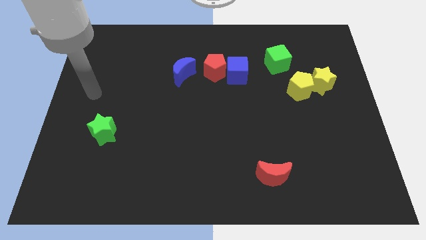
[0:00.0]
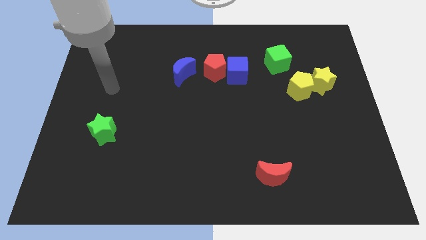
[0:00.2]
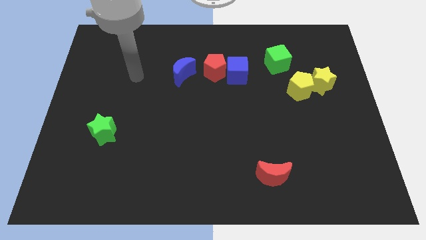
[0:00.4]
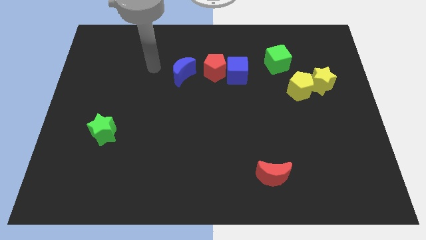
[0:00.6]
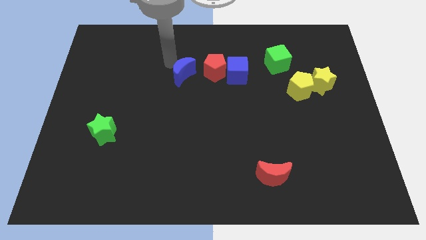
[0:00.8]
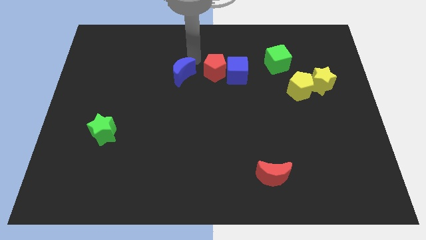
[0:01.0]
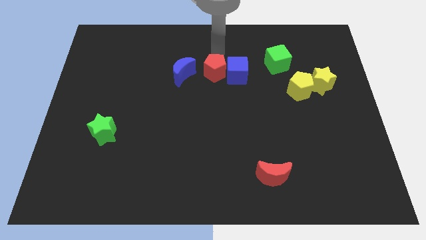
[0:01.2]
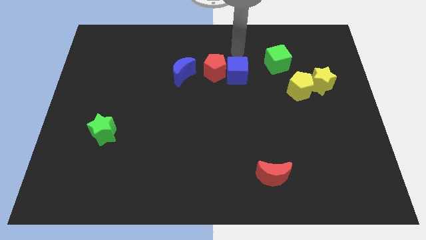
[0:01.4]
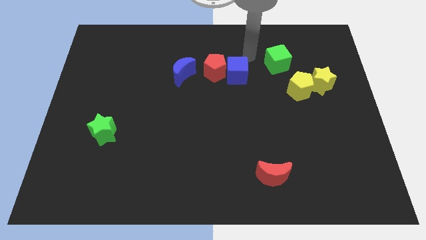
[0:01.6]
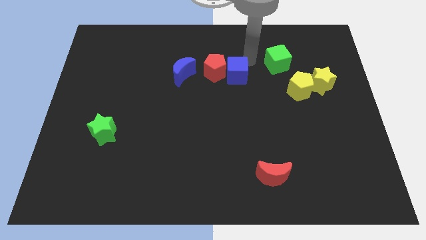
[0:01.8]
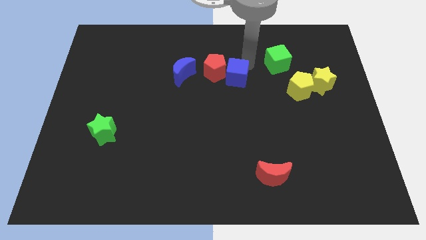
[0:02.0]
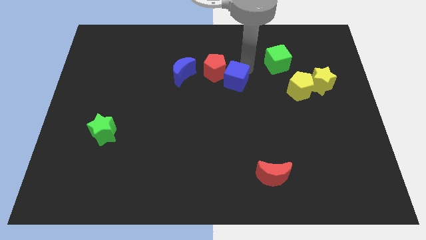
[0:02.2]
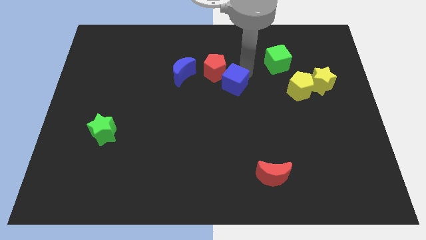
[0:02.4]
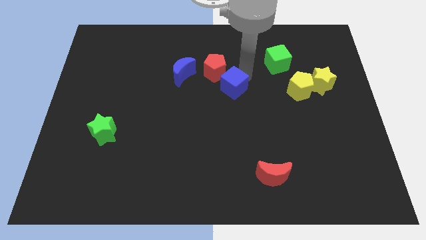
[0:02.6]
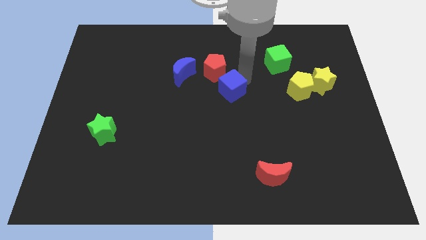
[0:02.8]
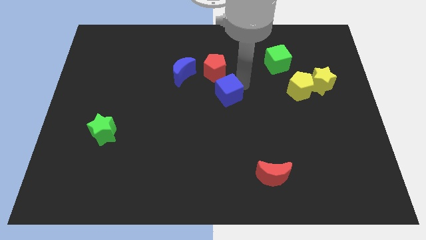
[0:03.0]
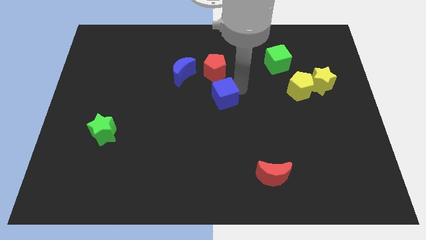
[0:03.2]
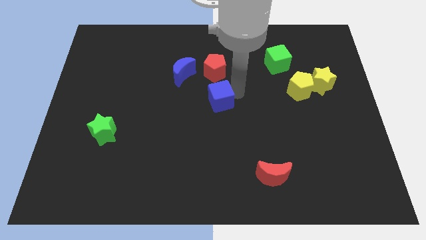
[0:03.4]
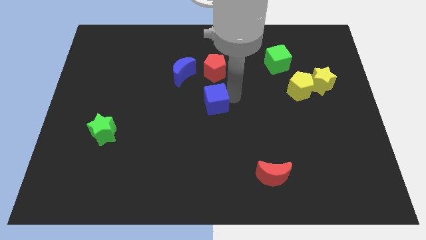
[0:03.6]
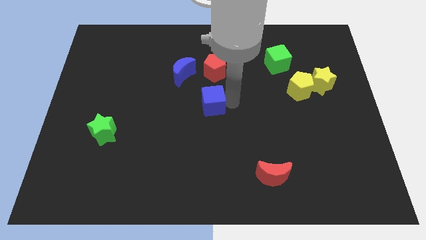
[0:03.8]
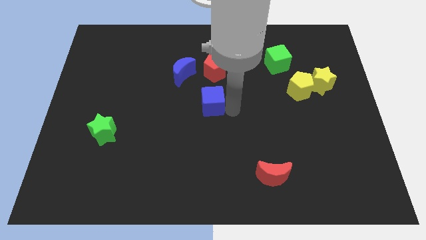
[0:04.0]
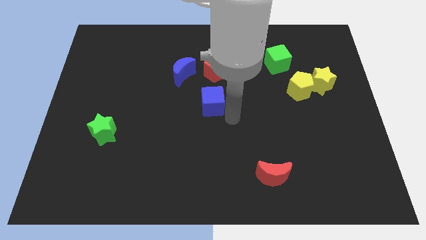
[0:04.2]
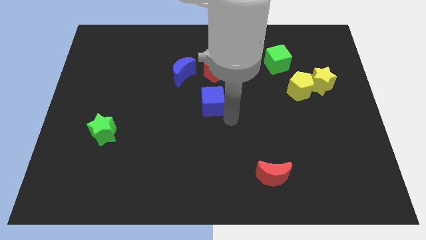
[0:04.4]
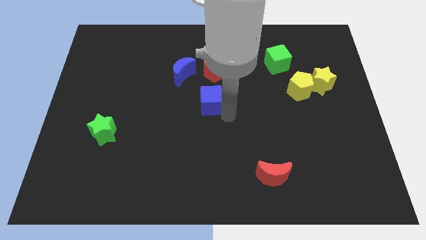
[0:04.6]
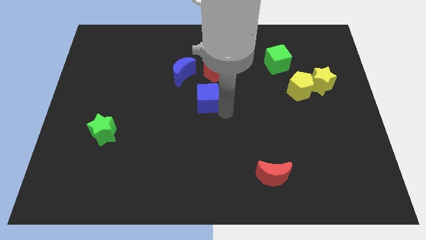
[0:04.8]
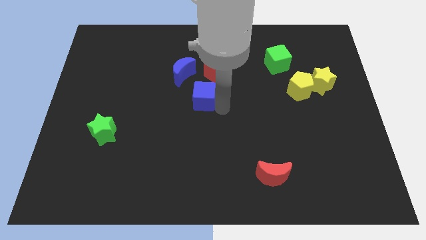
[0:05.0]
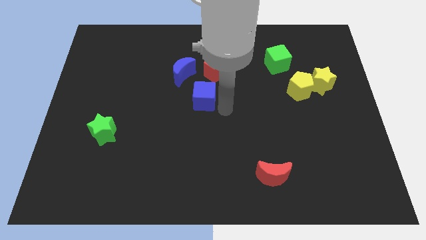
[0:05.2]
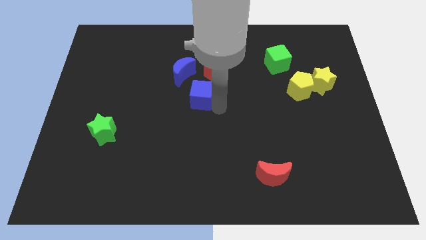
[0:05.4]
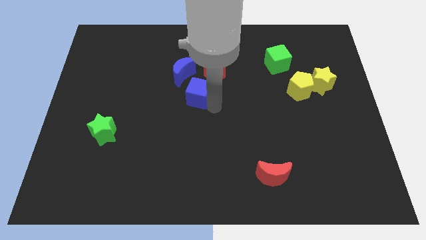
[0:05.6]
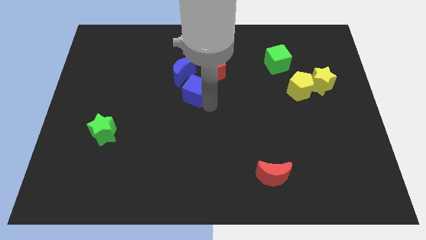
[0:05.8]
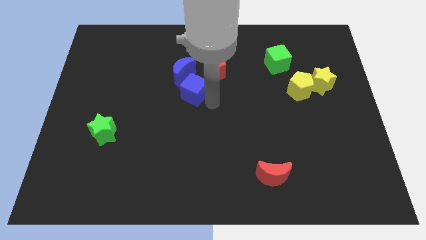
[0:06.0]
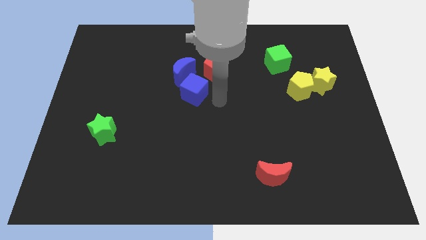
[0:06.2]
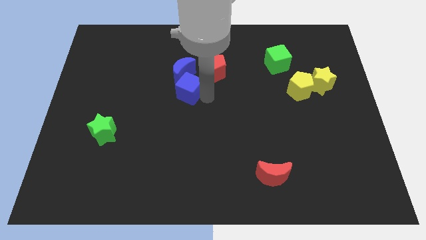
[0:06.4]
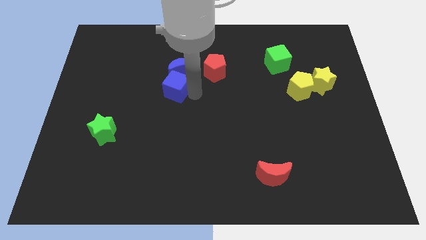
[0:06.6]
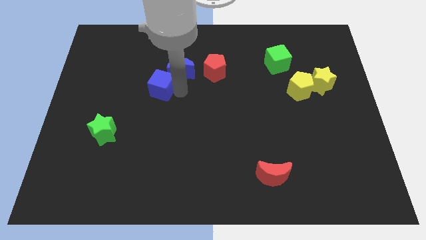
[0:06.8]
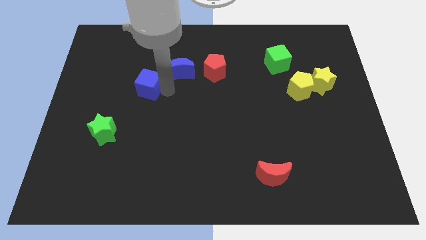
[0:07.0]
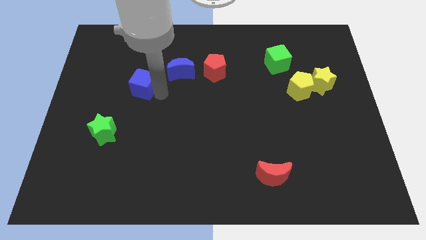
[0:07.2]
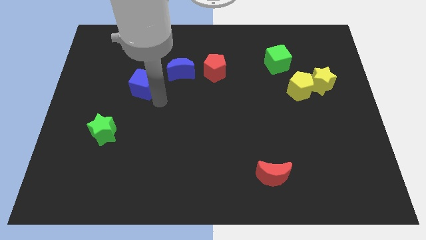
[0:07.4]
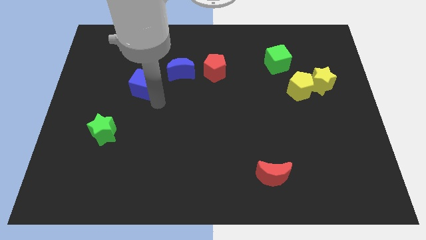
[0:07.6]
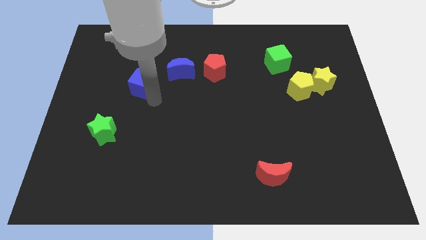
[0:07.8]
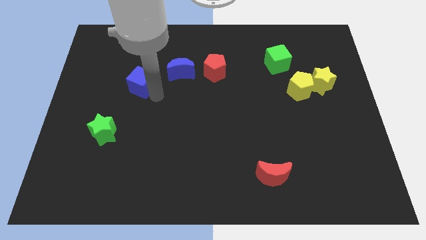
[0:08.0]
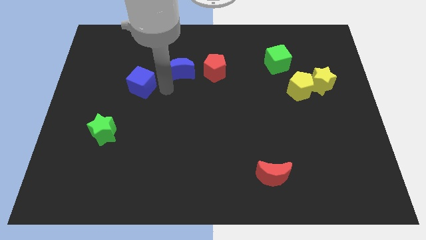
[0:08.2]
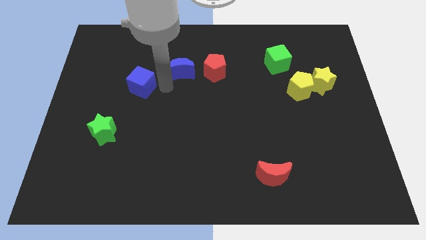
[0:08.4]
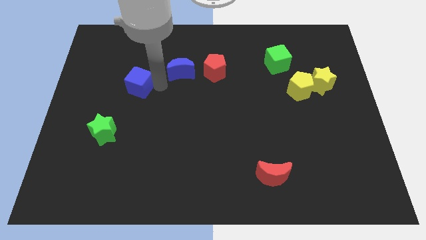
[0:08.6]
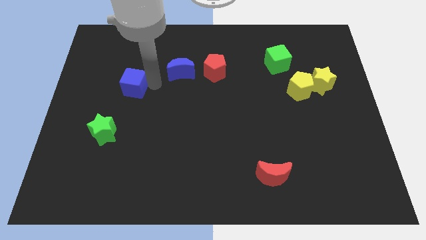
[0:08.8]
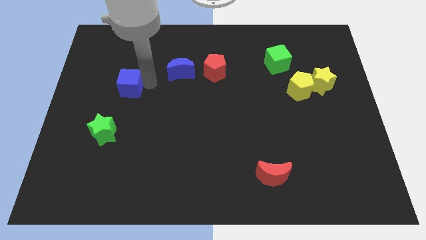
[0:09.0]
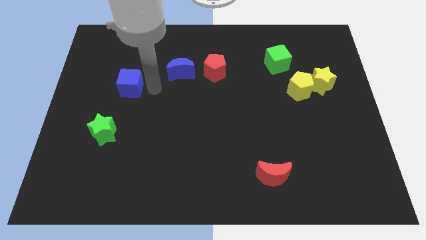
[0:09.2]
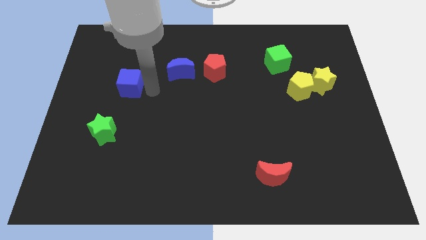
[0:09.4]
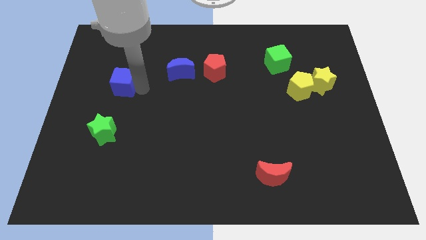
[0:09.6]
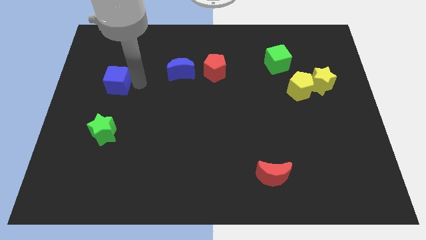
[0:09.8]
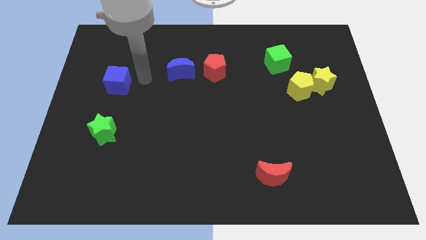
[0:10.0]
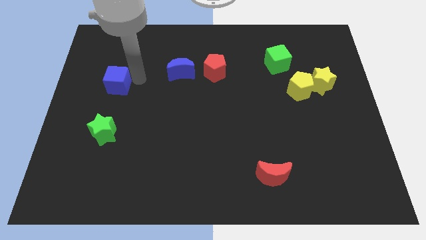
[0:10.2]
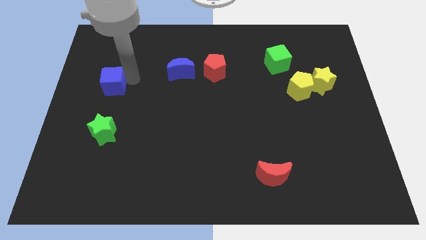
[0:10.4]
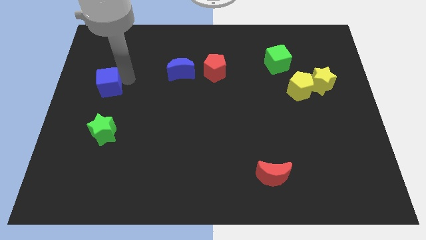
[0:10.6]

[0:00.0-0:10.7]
move the blue cube to the center left

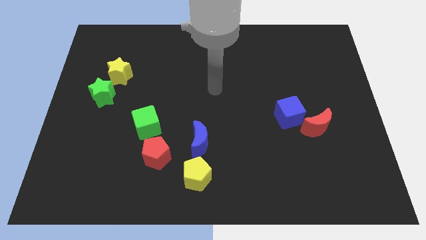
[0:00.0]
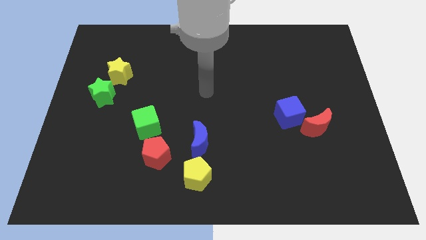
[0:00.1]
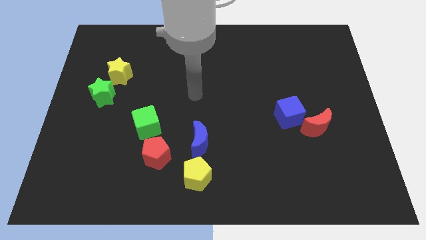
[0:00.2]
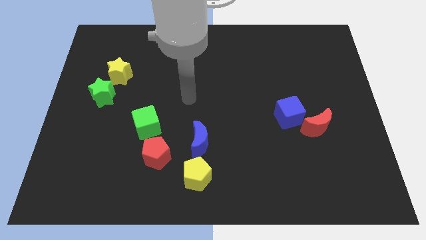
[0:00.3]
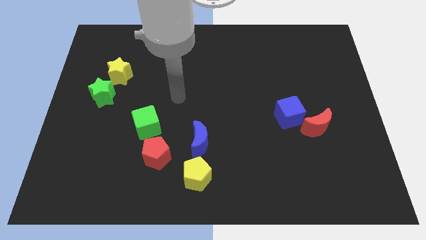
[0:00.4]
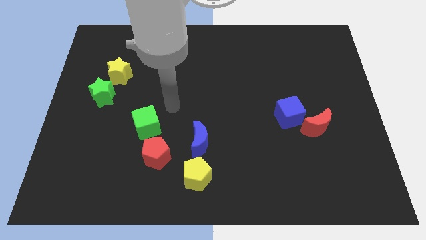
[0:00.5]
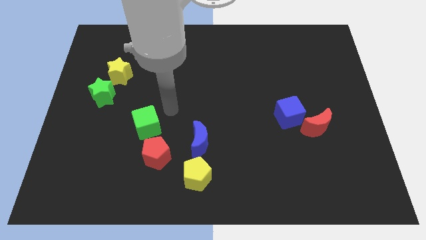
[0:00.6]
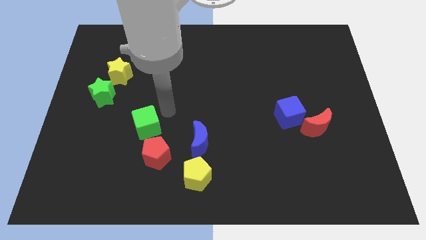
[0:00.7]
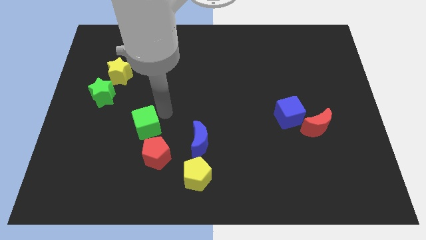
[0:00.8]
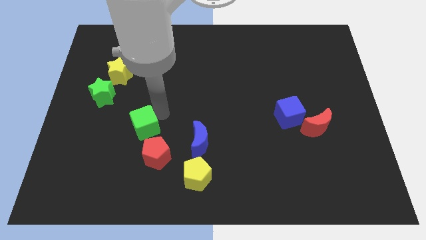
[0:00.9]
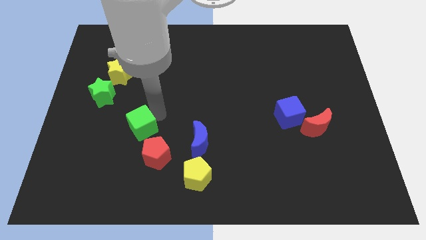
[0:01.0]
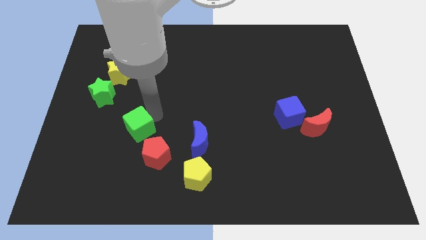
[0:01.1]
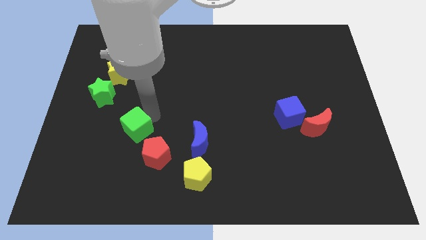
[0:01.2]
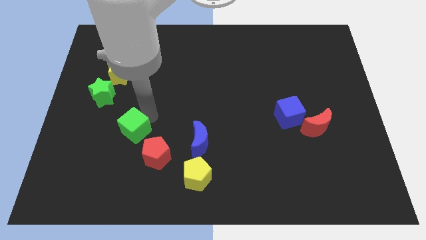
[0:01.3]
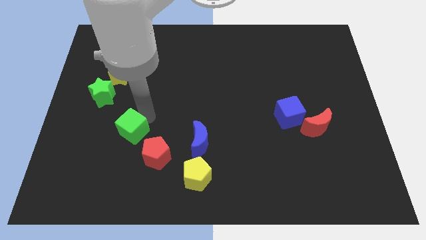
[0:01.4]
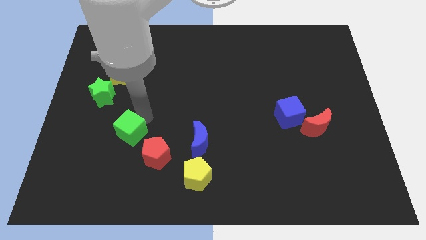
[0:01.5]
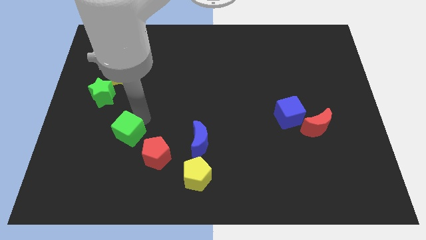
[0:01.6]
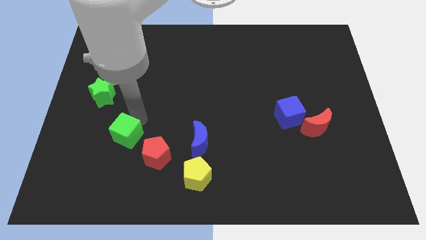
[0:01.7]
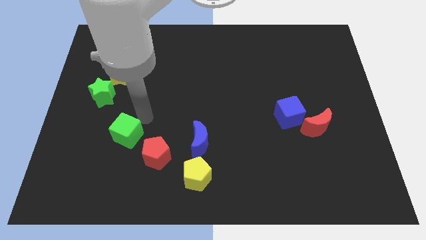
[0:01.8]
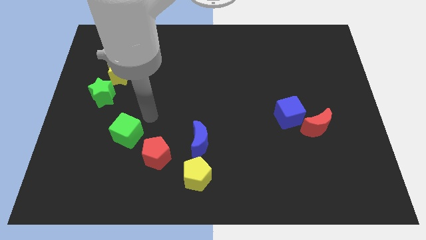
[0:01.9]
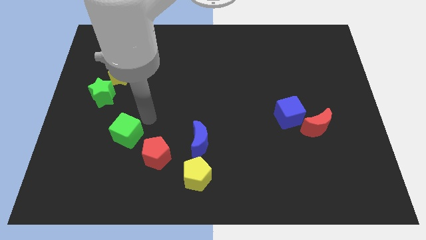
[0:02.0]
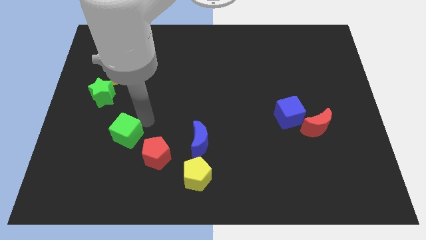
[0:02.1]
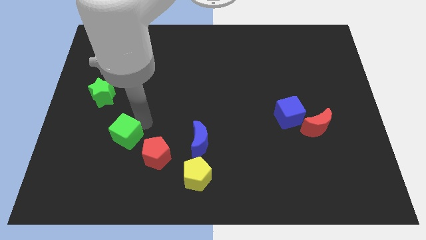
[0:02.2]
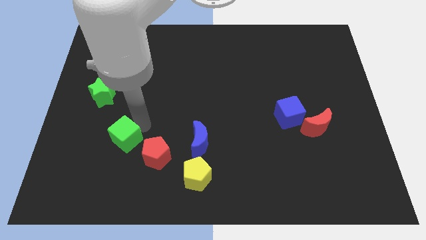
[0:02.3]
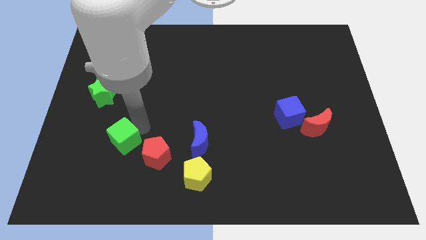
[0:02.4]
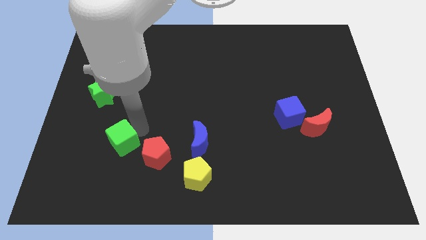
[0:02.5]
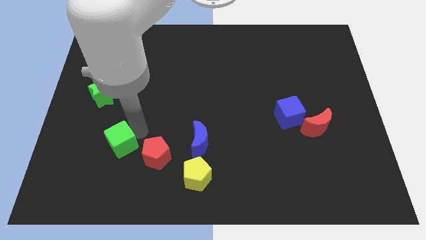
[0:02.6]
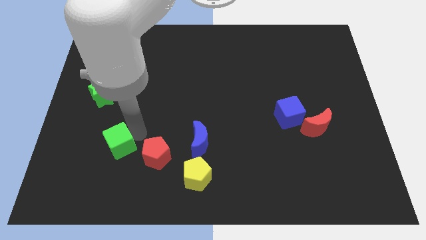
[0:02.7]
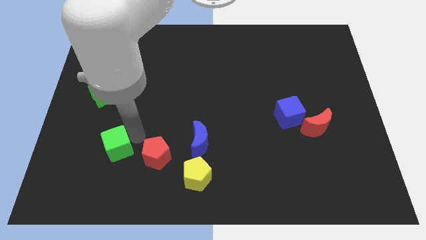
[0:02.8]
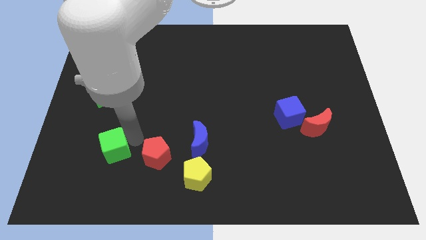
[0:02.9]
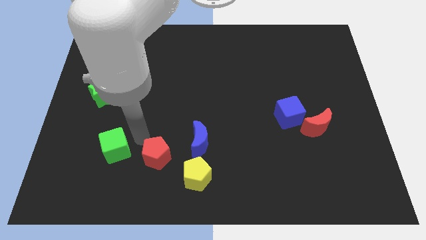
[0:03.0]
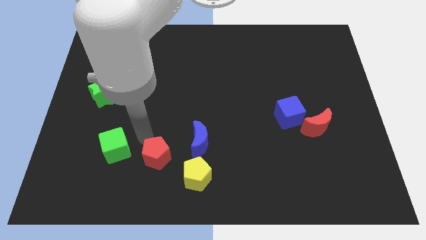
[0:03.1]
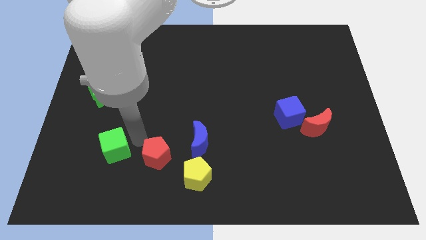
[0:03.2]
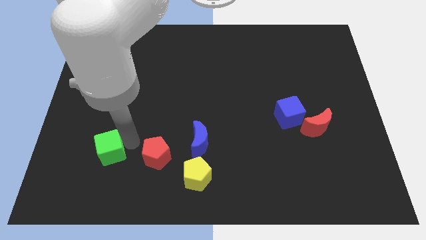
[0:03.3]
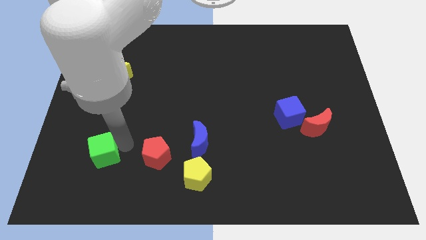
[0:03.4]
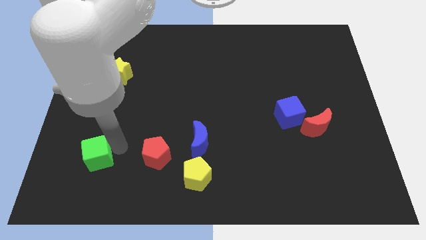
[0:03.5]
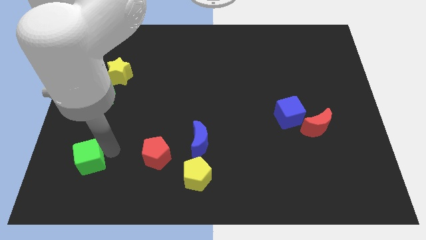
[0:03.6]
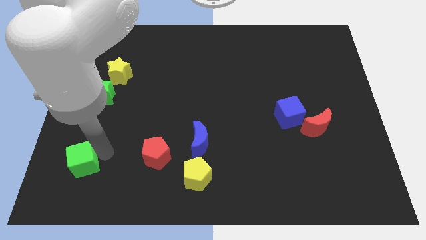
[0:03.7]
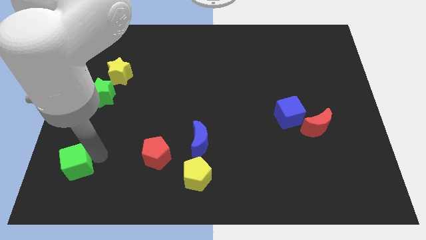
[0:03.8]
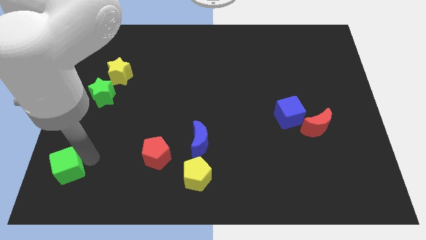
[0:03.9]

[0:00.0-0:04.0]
push the green cube to the bottom left
